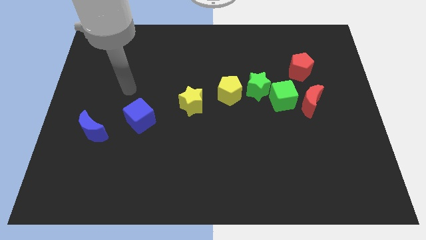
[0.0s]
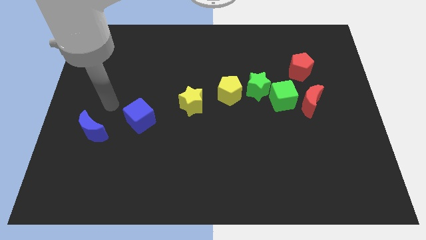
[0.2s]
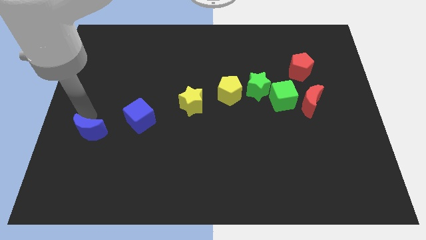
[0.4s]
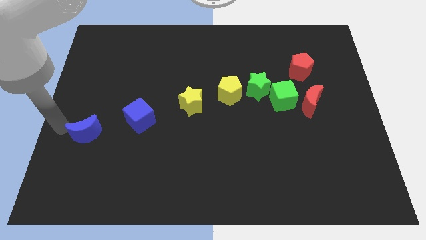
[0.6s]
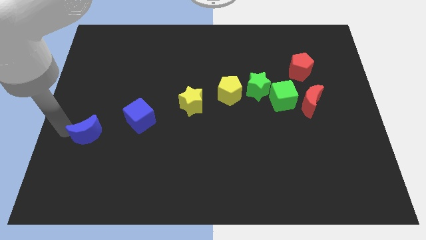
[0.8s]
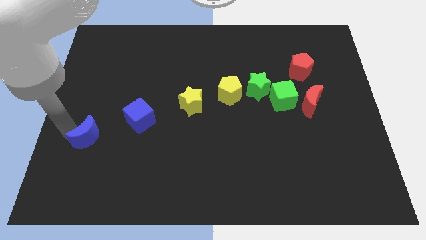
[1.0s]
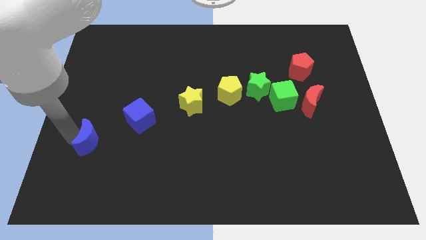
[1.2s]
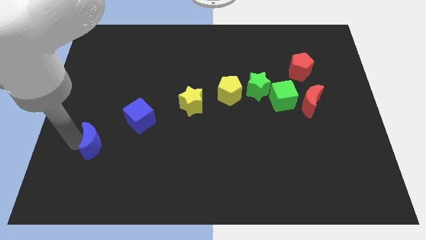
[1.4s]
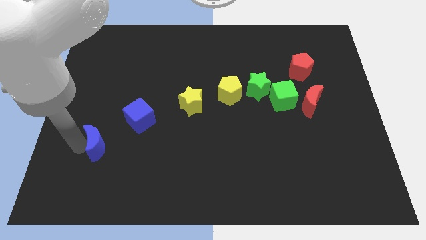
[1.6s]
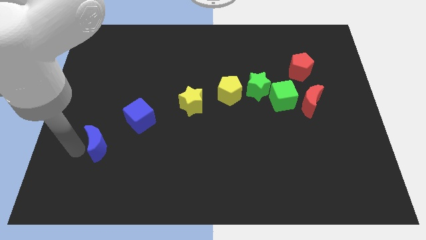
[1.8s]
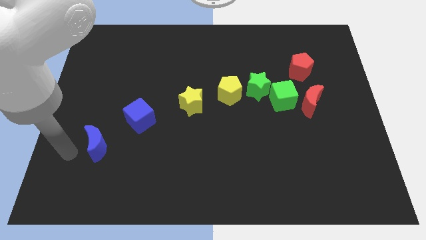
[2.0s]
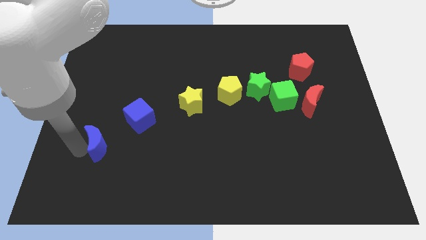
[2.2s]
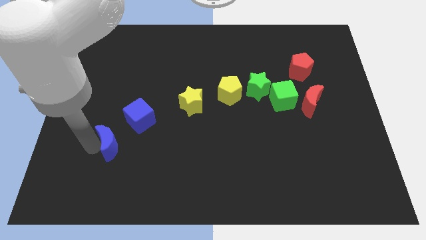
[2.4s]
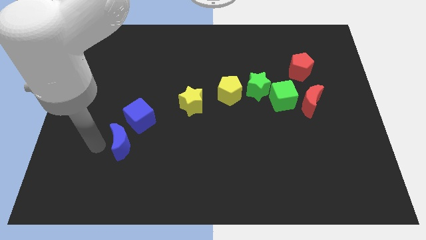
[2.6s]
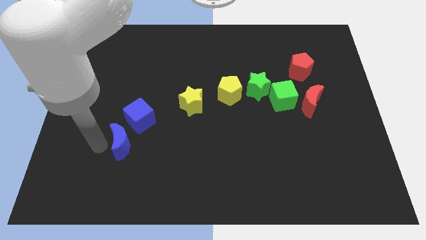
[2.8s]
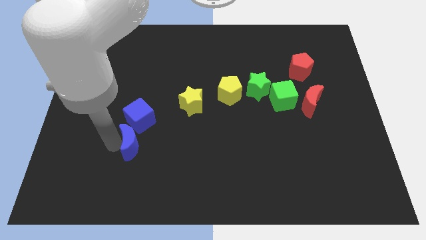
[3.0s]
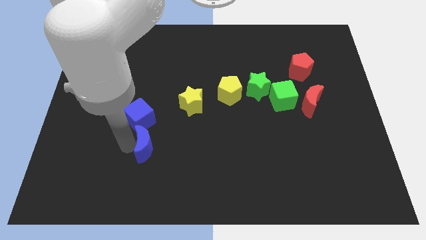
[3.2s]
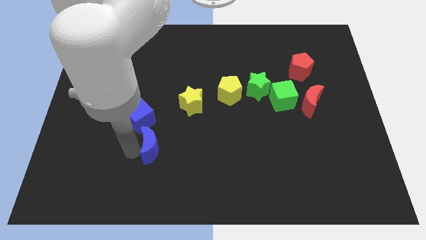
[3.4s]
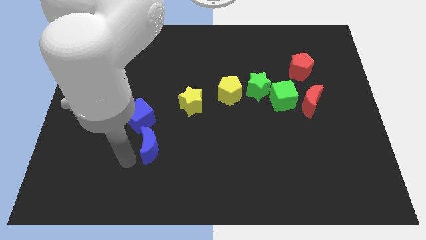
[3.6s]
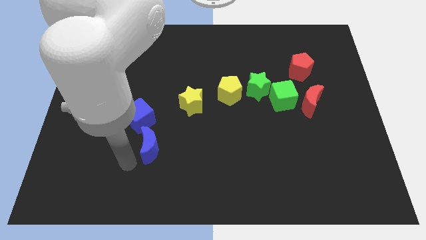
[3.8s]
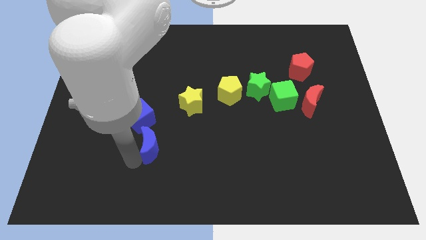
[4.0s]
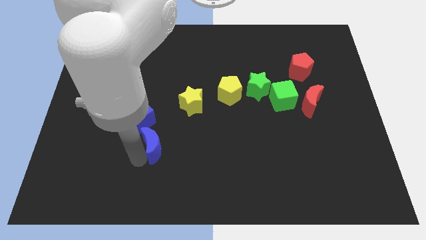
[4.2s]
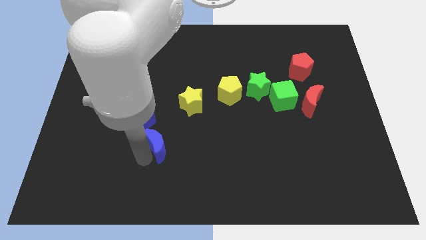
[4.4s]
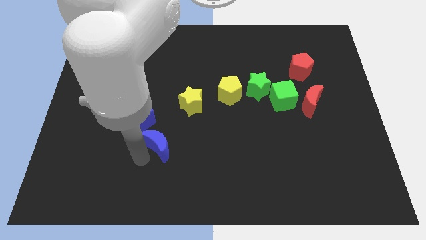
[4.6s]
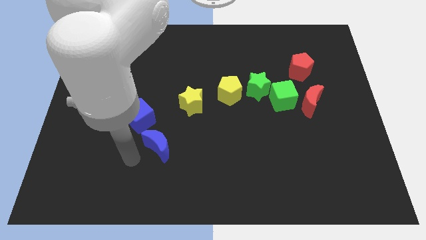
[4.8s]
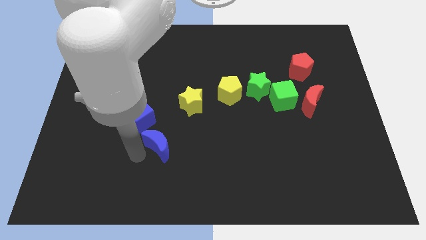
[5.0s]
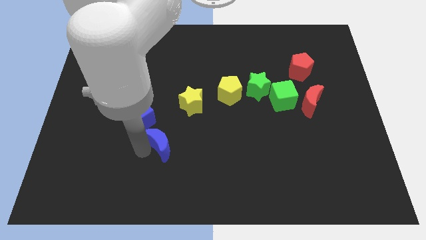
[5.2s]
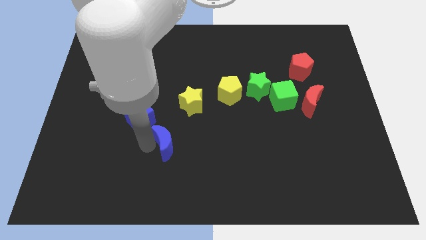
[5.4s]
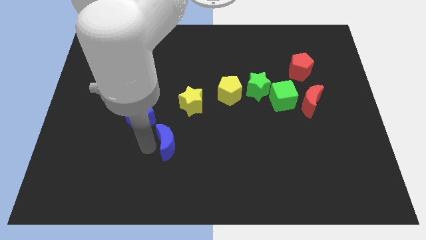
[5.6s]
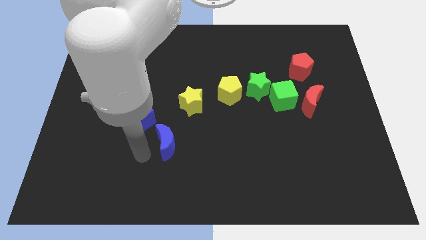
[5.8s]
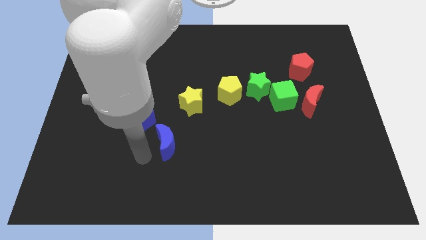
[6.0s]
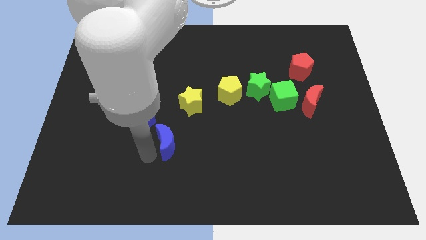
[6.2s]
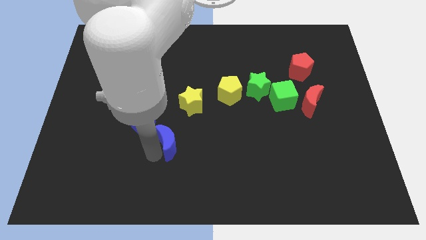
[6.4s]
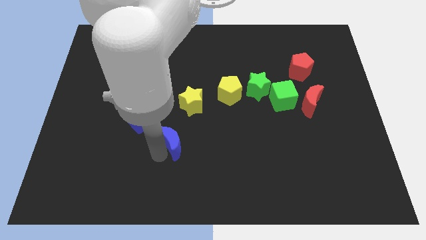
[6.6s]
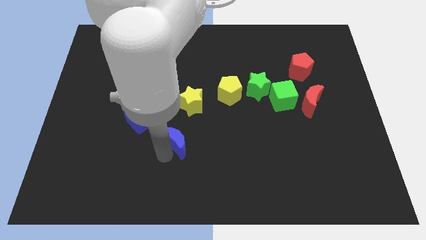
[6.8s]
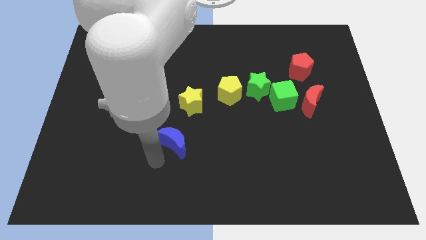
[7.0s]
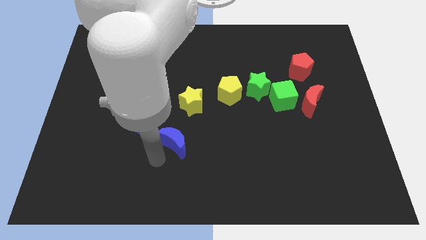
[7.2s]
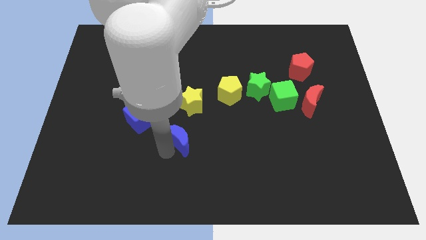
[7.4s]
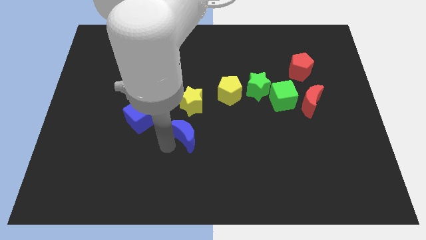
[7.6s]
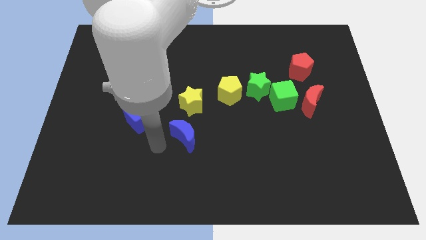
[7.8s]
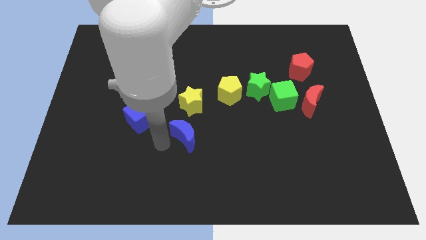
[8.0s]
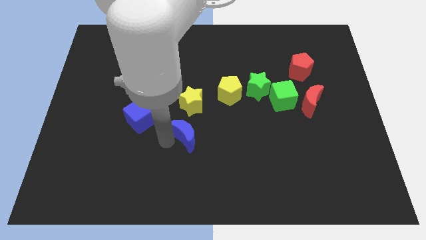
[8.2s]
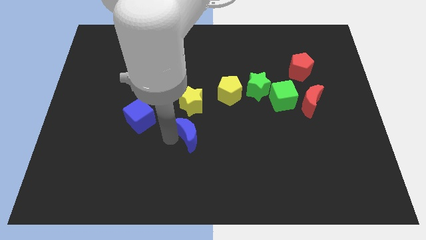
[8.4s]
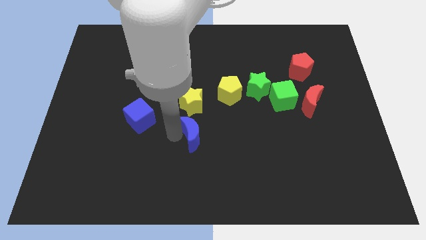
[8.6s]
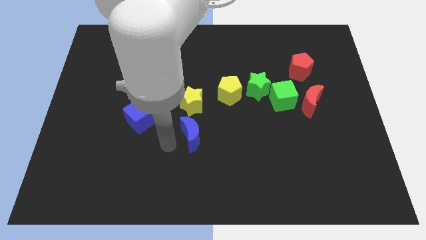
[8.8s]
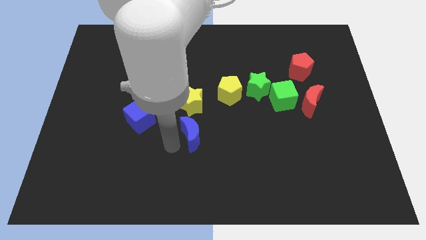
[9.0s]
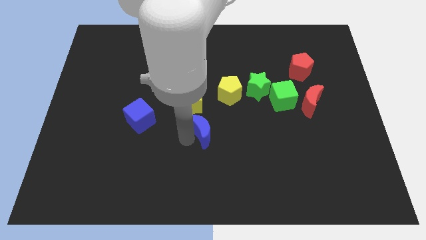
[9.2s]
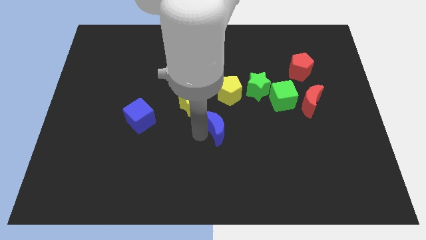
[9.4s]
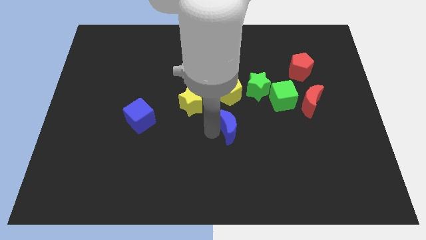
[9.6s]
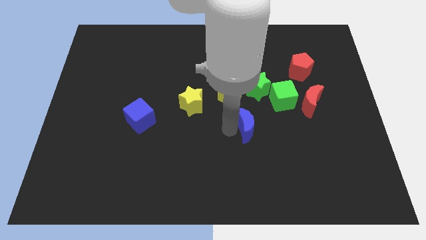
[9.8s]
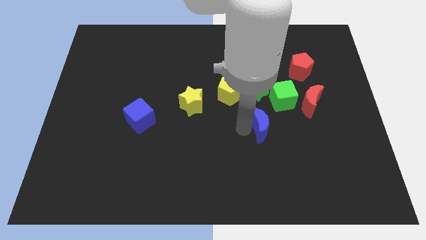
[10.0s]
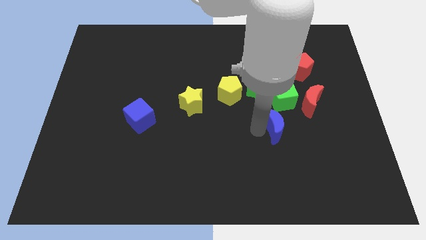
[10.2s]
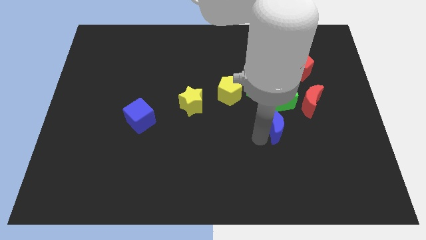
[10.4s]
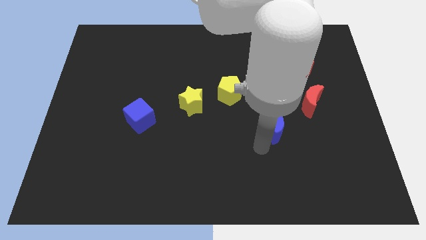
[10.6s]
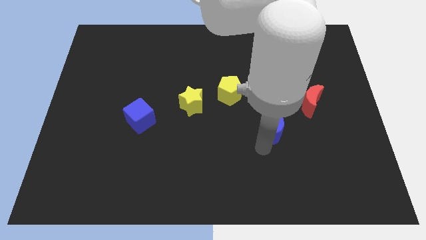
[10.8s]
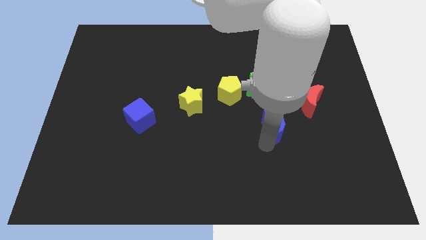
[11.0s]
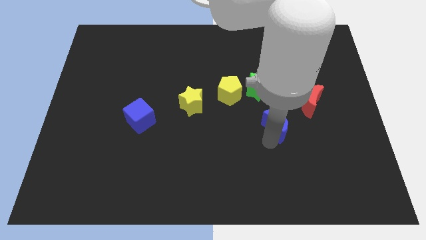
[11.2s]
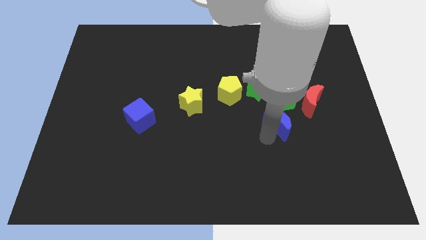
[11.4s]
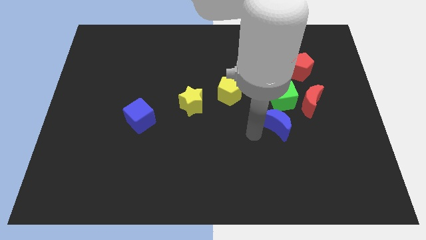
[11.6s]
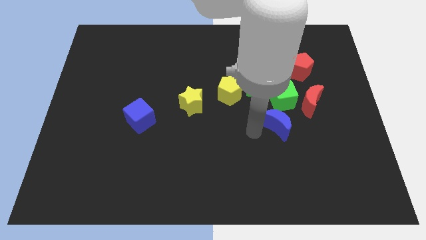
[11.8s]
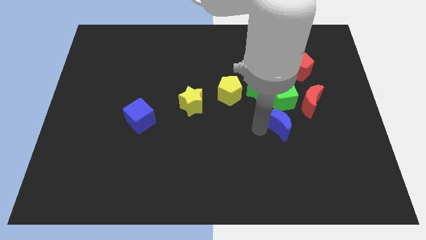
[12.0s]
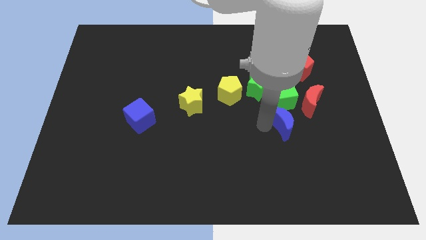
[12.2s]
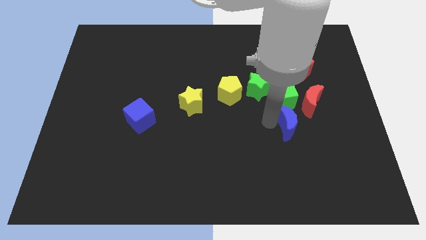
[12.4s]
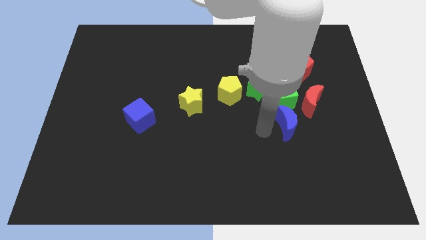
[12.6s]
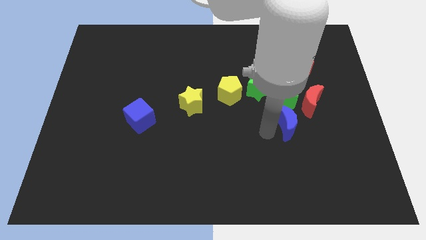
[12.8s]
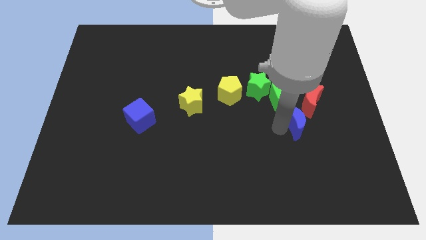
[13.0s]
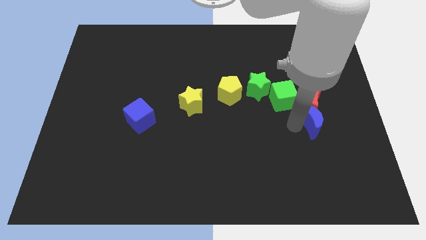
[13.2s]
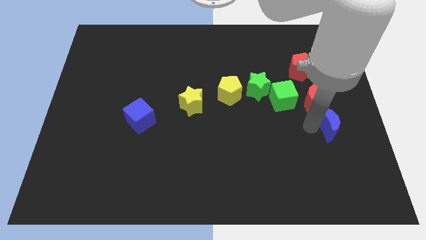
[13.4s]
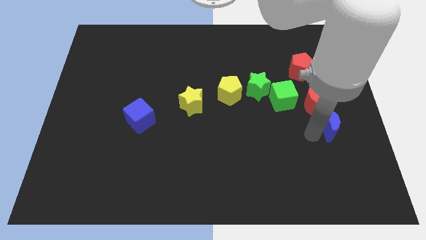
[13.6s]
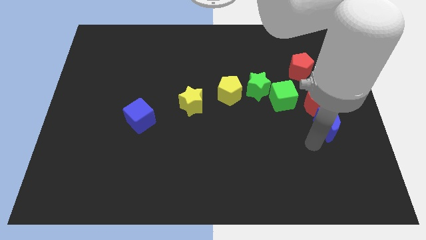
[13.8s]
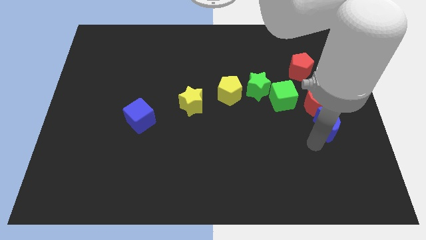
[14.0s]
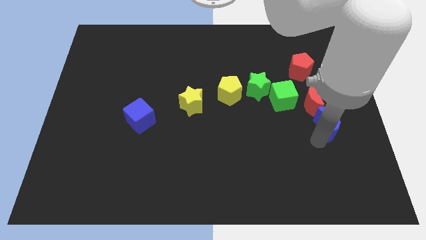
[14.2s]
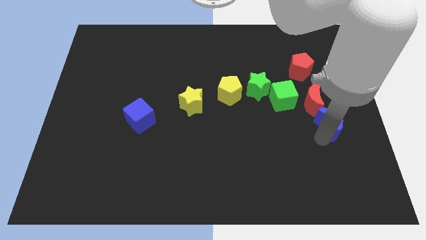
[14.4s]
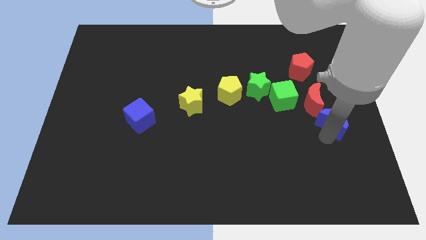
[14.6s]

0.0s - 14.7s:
push the blue moon to the center right
